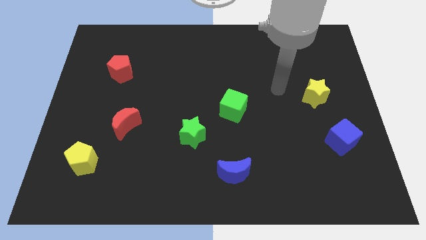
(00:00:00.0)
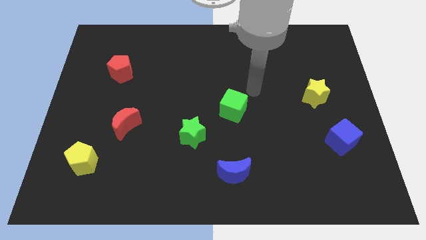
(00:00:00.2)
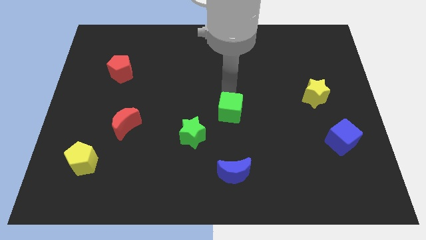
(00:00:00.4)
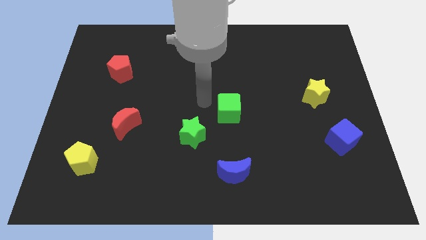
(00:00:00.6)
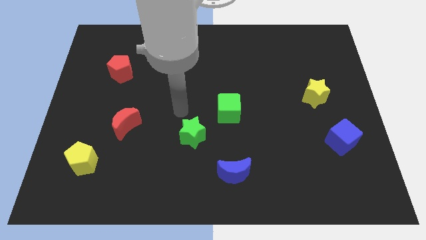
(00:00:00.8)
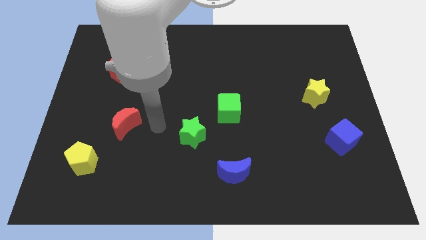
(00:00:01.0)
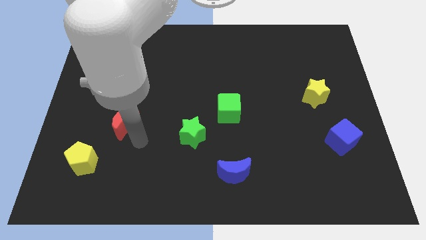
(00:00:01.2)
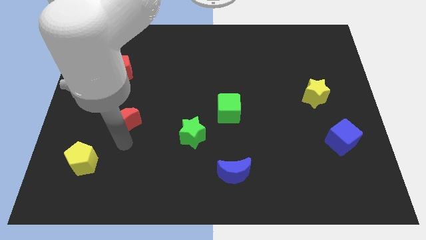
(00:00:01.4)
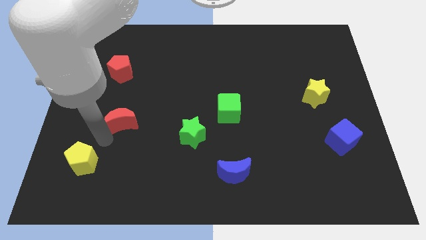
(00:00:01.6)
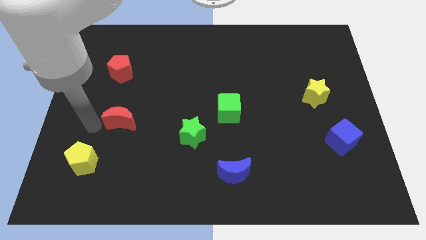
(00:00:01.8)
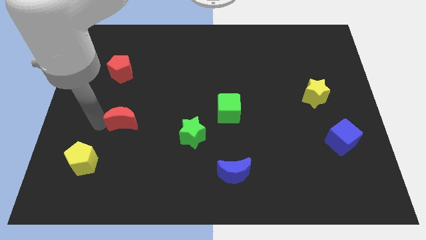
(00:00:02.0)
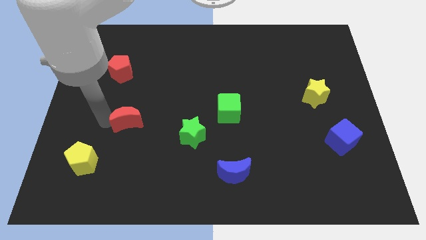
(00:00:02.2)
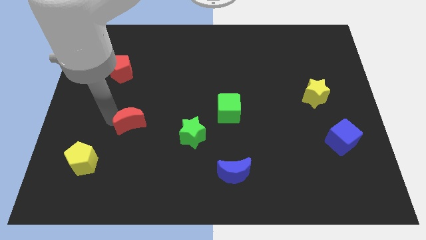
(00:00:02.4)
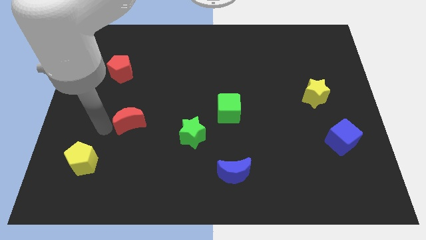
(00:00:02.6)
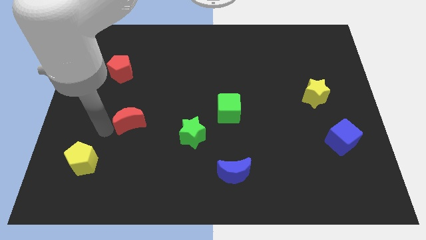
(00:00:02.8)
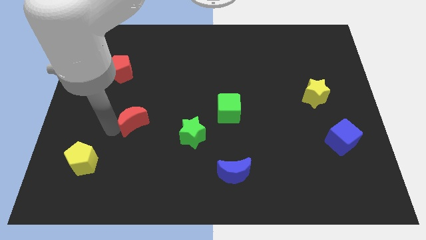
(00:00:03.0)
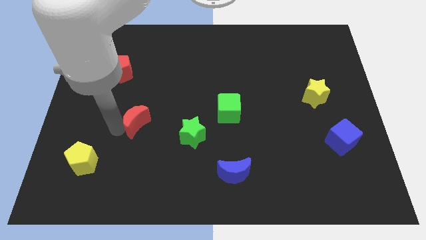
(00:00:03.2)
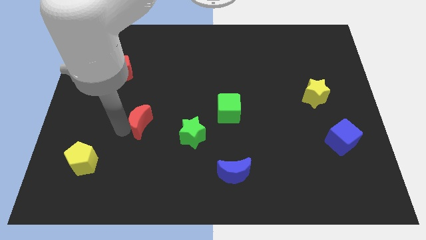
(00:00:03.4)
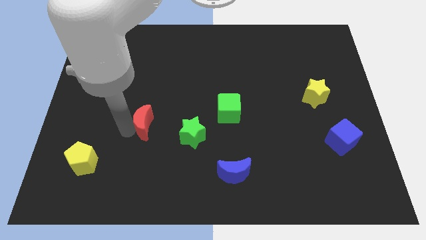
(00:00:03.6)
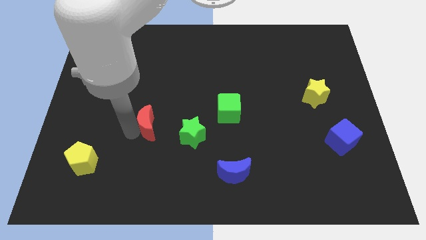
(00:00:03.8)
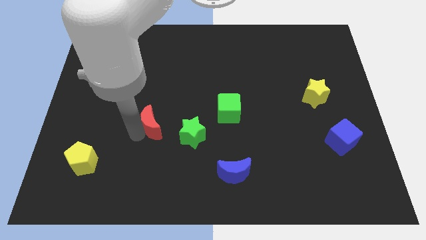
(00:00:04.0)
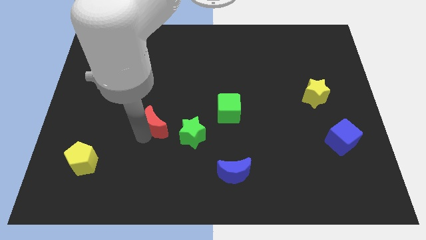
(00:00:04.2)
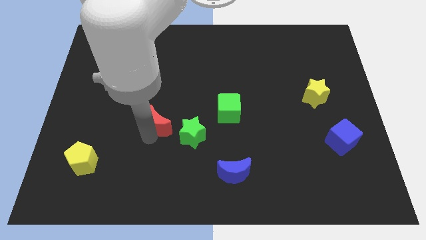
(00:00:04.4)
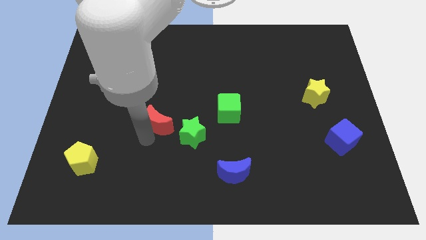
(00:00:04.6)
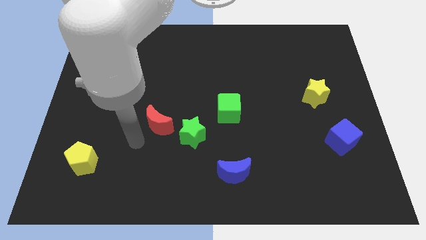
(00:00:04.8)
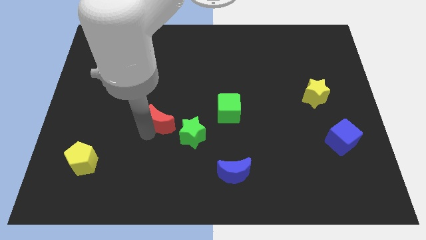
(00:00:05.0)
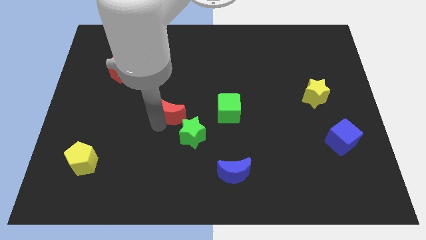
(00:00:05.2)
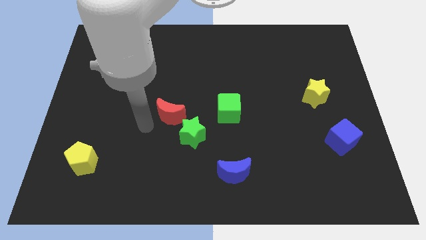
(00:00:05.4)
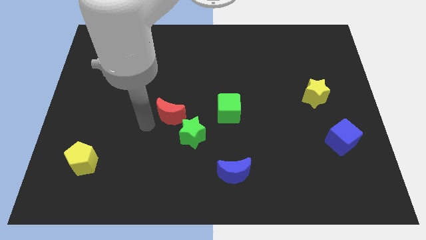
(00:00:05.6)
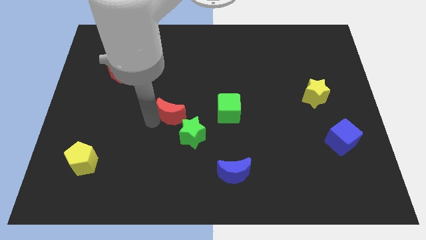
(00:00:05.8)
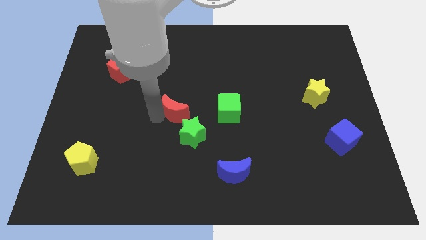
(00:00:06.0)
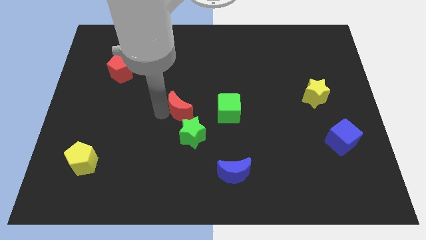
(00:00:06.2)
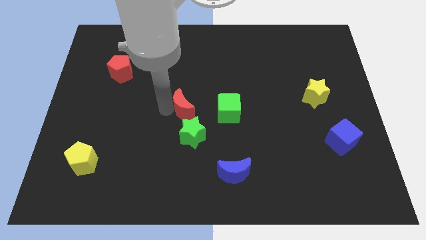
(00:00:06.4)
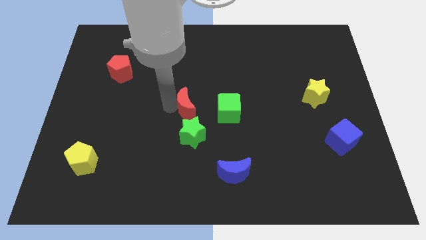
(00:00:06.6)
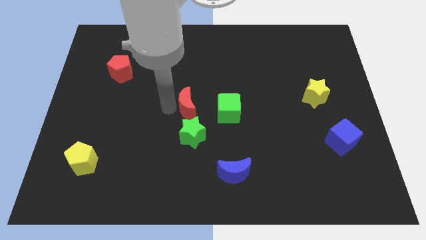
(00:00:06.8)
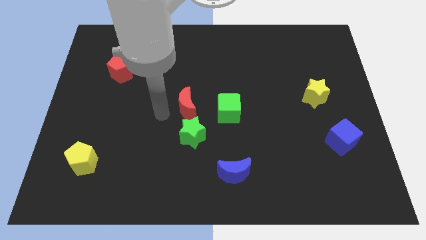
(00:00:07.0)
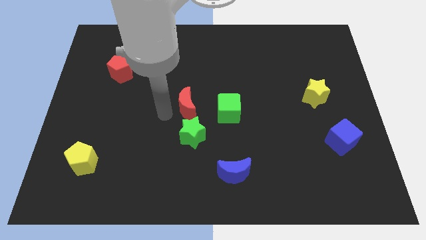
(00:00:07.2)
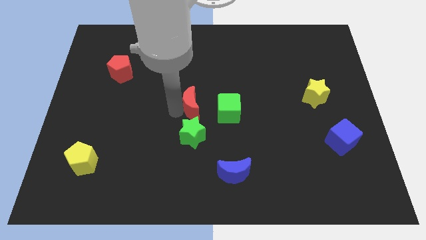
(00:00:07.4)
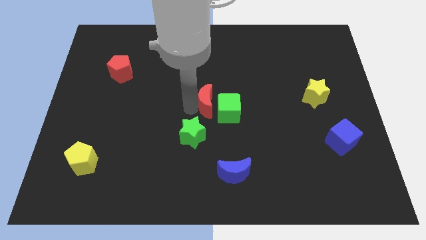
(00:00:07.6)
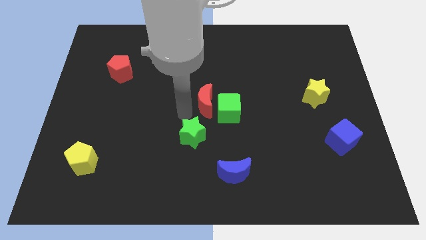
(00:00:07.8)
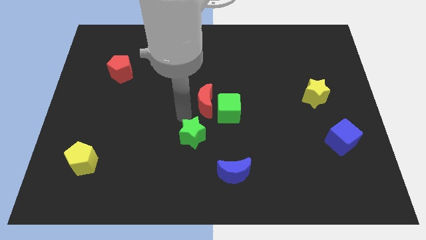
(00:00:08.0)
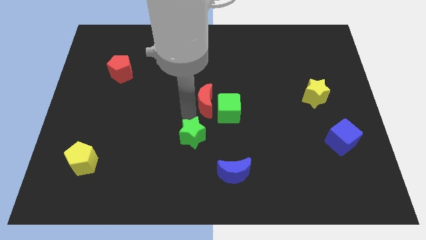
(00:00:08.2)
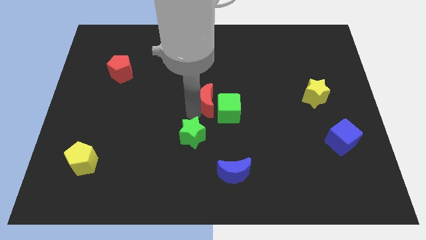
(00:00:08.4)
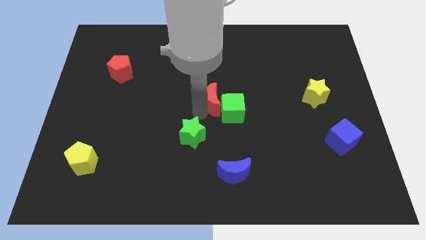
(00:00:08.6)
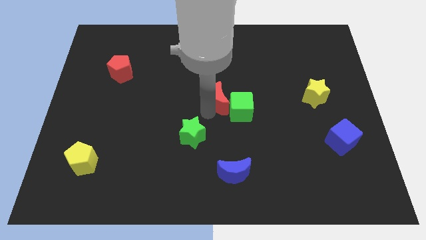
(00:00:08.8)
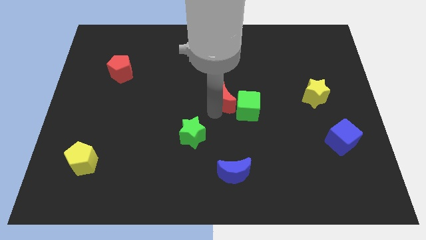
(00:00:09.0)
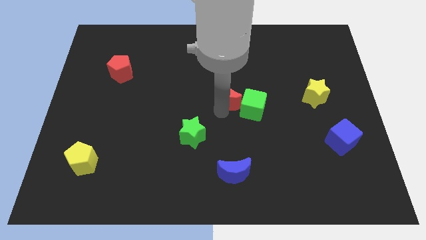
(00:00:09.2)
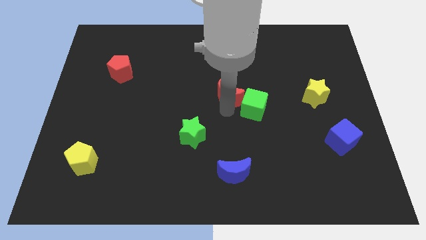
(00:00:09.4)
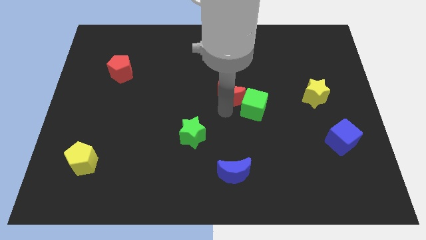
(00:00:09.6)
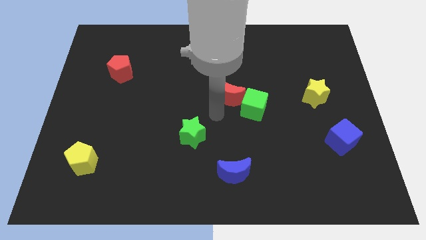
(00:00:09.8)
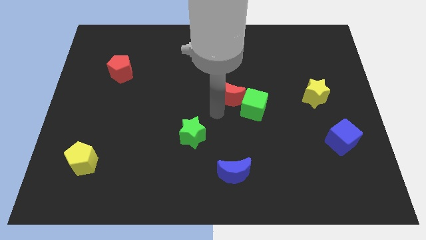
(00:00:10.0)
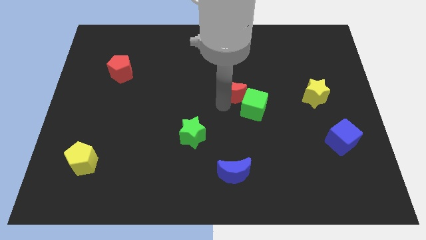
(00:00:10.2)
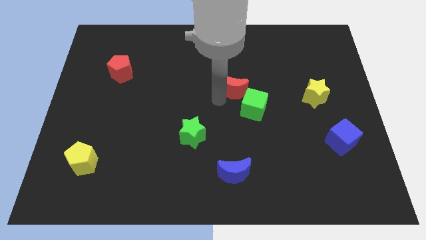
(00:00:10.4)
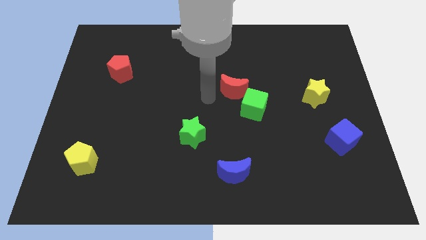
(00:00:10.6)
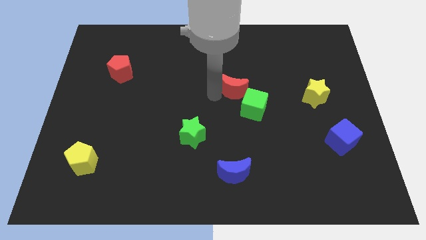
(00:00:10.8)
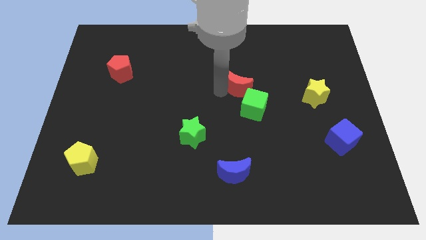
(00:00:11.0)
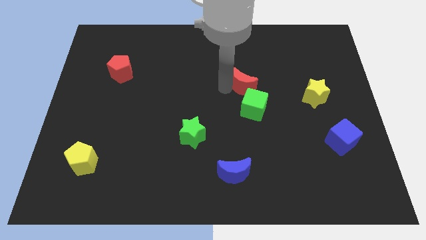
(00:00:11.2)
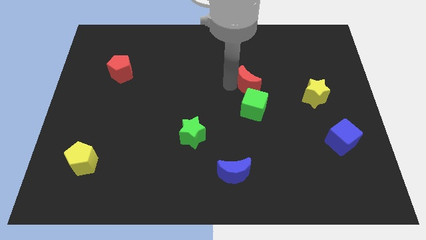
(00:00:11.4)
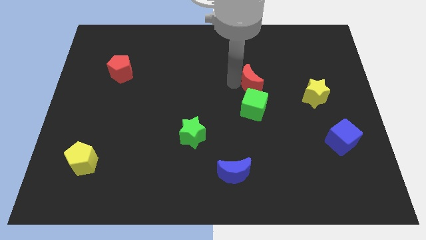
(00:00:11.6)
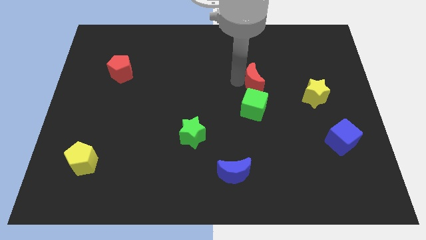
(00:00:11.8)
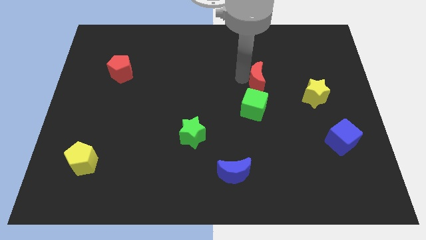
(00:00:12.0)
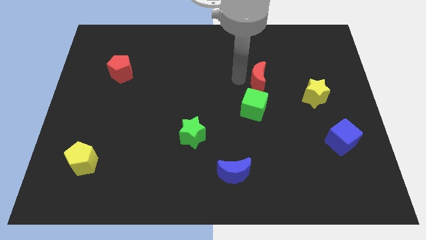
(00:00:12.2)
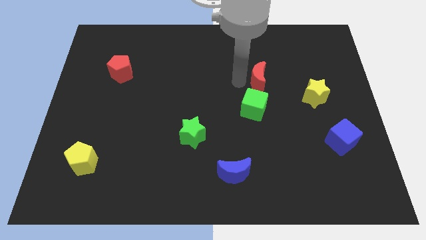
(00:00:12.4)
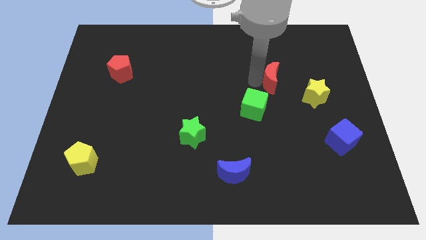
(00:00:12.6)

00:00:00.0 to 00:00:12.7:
slide the red moon to the top left of the yellow star

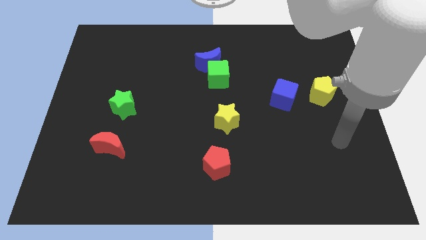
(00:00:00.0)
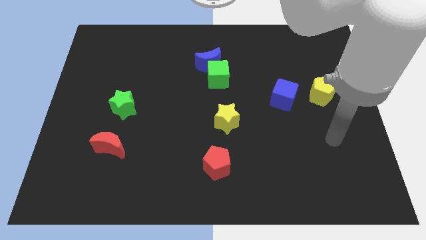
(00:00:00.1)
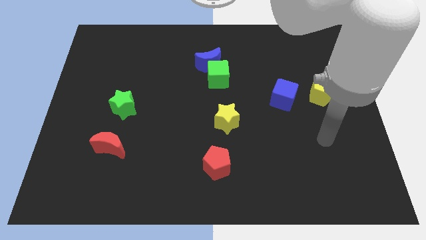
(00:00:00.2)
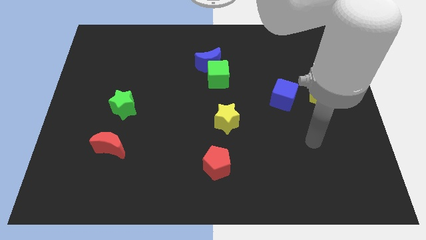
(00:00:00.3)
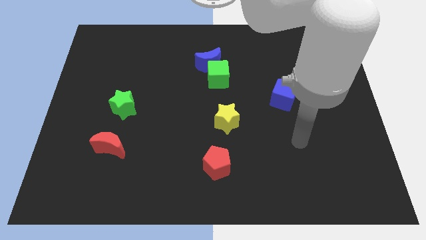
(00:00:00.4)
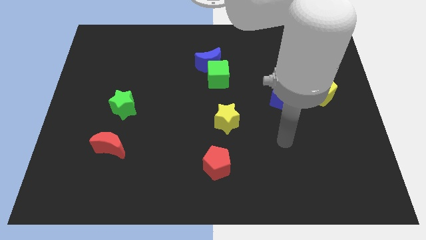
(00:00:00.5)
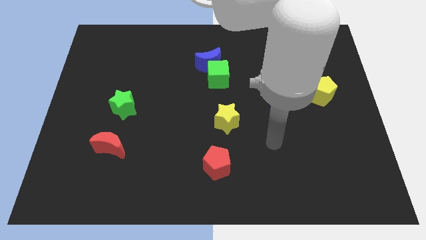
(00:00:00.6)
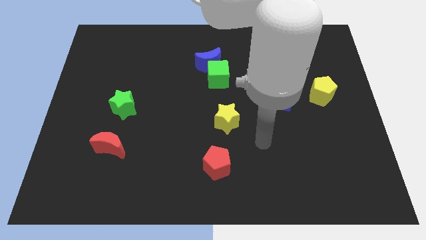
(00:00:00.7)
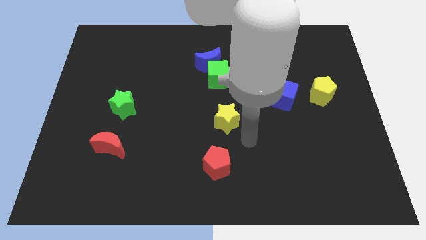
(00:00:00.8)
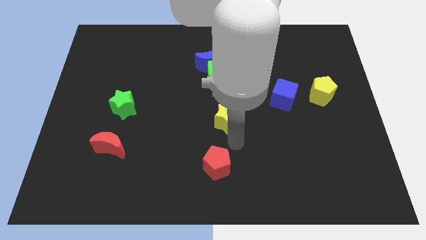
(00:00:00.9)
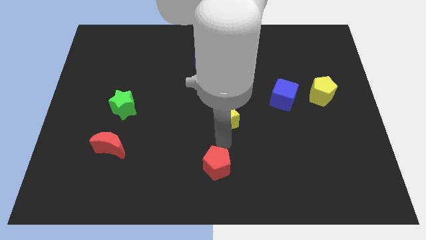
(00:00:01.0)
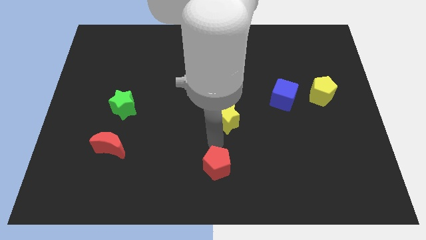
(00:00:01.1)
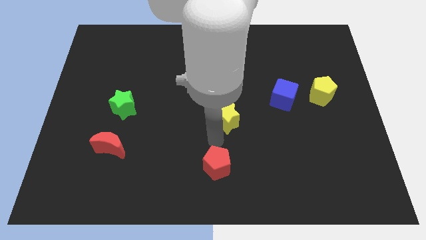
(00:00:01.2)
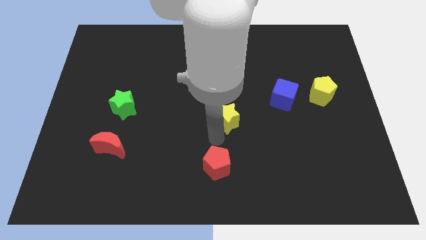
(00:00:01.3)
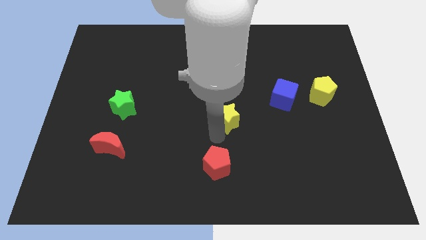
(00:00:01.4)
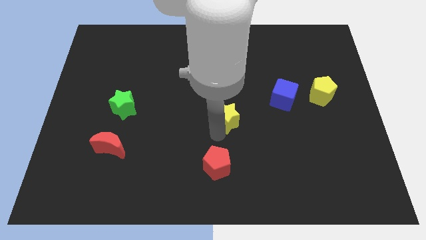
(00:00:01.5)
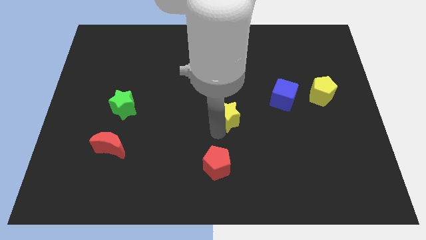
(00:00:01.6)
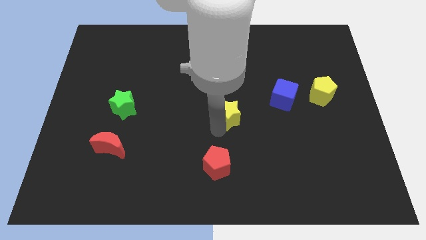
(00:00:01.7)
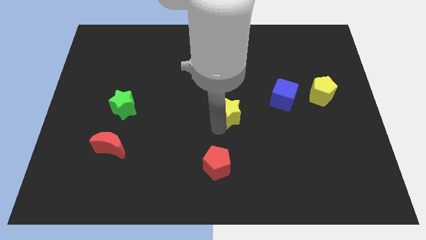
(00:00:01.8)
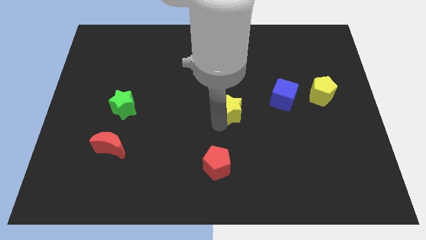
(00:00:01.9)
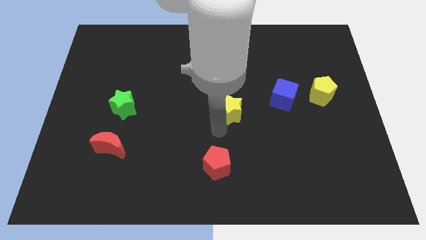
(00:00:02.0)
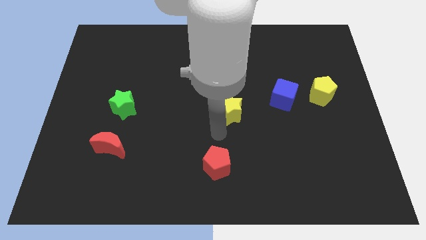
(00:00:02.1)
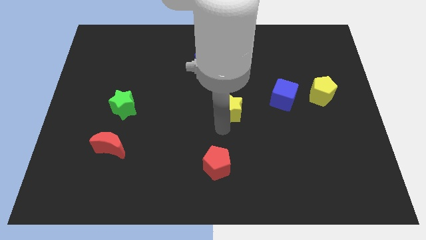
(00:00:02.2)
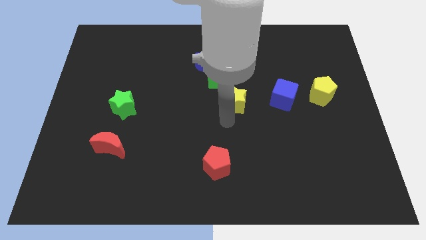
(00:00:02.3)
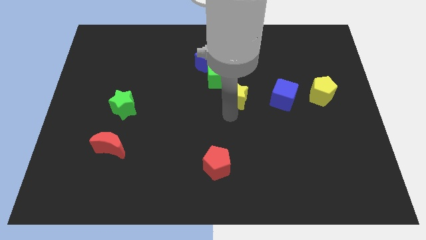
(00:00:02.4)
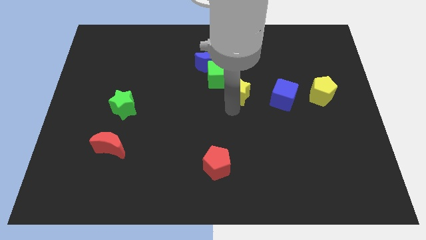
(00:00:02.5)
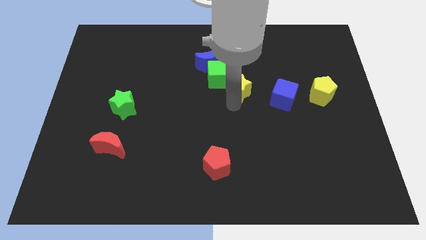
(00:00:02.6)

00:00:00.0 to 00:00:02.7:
put the yellow star to the right of the green cube
